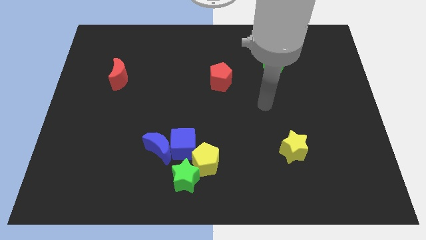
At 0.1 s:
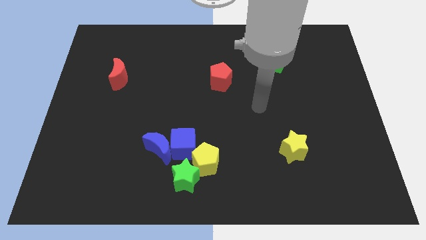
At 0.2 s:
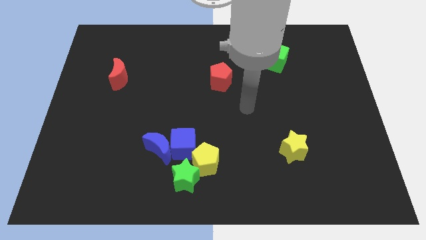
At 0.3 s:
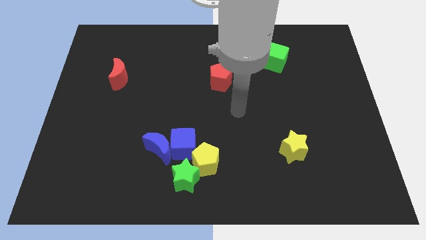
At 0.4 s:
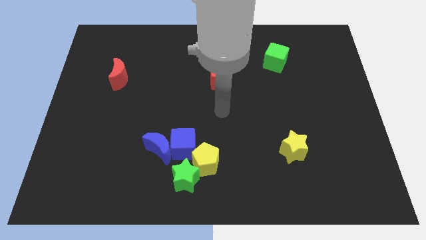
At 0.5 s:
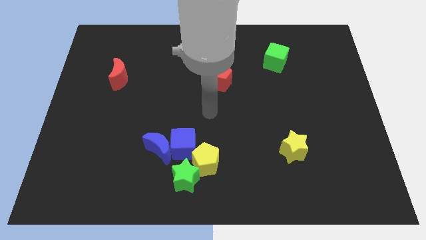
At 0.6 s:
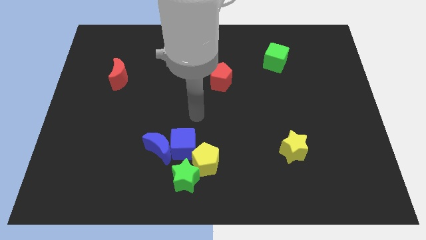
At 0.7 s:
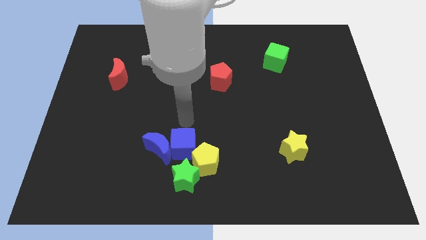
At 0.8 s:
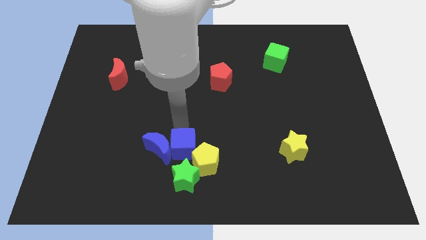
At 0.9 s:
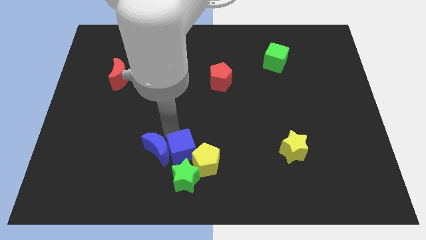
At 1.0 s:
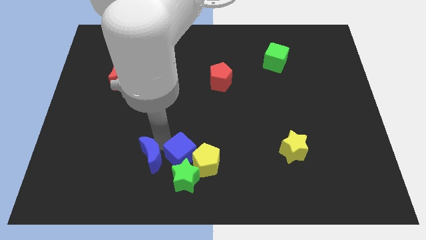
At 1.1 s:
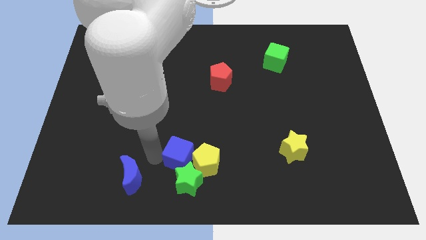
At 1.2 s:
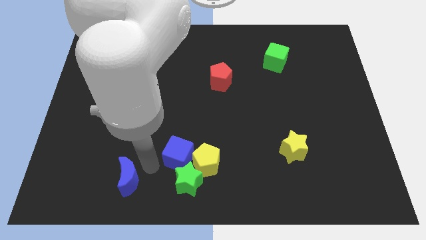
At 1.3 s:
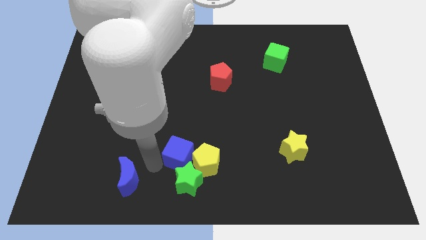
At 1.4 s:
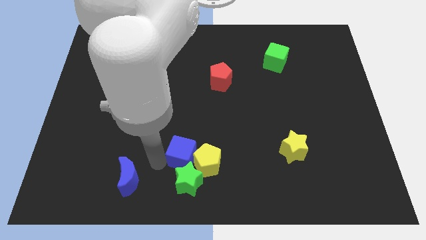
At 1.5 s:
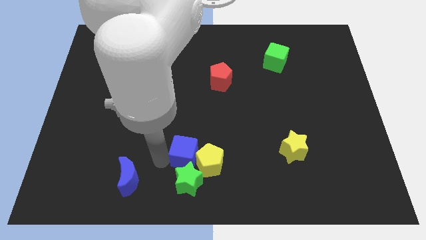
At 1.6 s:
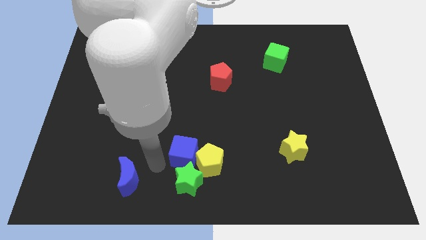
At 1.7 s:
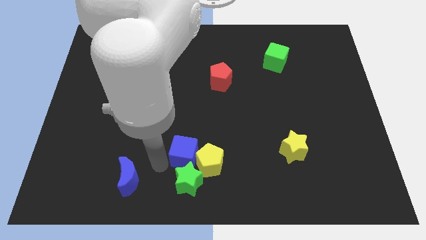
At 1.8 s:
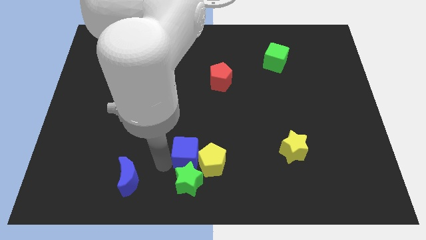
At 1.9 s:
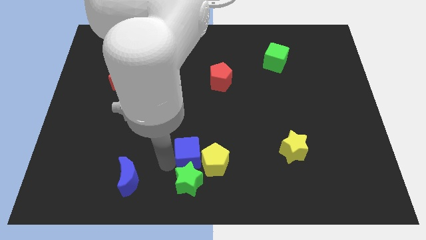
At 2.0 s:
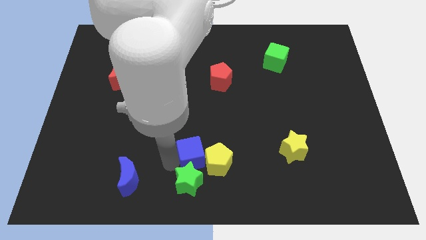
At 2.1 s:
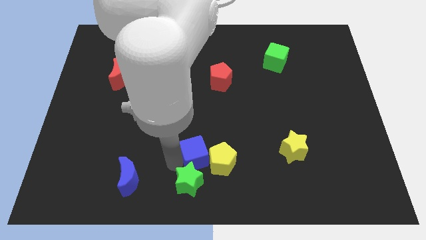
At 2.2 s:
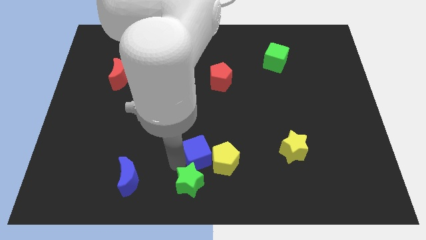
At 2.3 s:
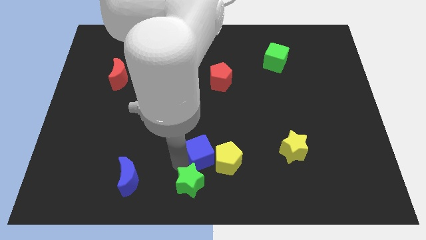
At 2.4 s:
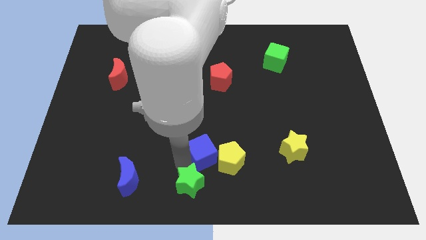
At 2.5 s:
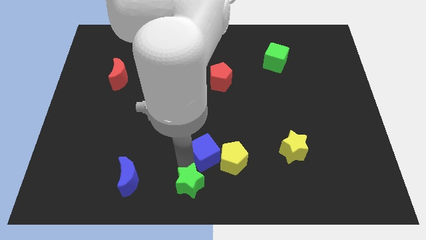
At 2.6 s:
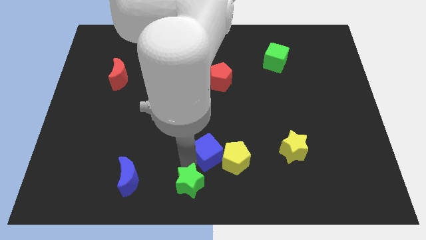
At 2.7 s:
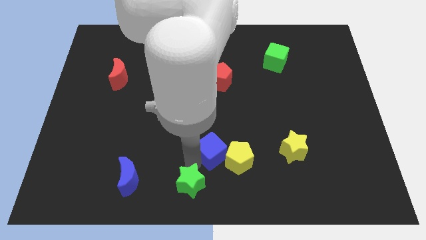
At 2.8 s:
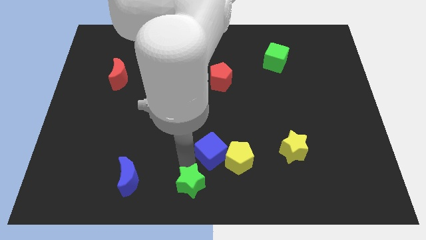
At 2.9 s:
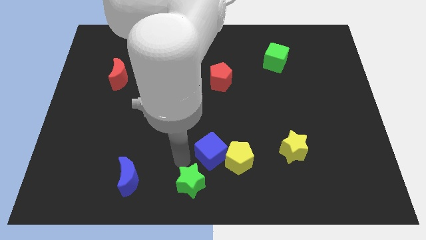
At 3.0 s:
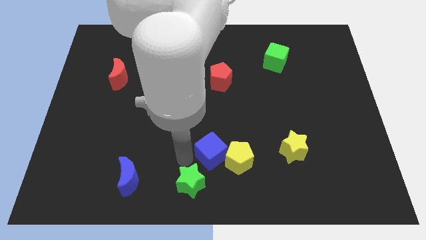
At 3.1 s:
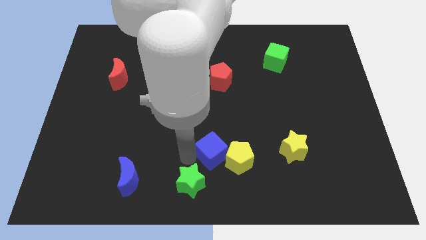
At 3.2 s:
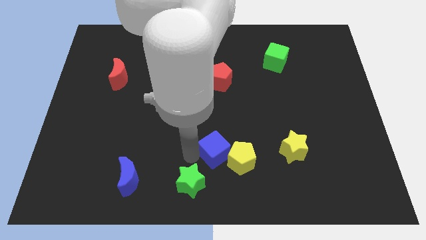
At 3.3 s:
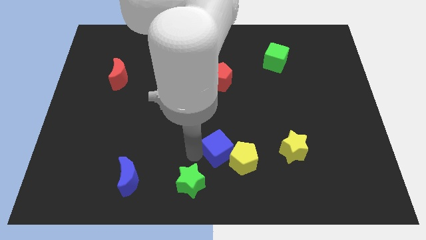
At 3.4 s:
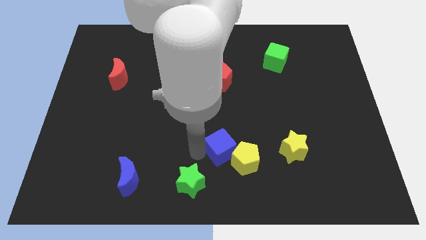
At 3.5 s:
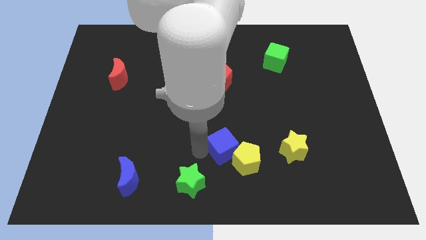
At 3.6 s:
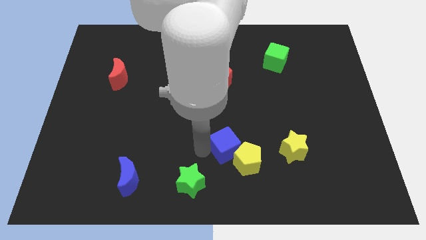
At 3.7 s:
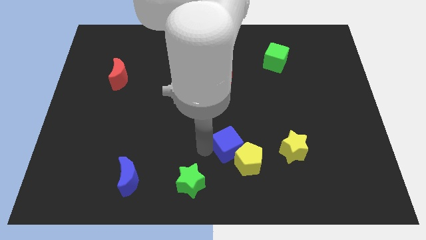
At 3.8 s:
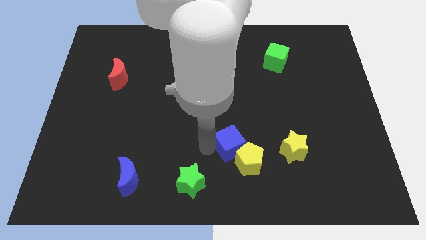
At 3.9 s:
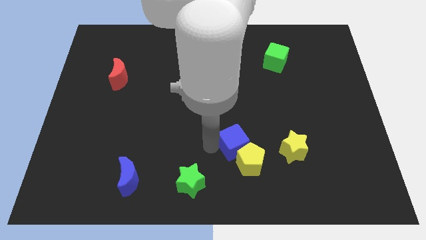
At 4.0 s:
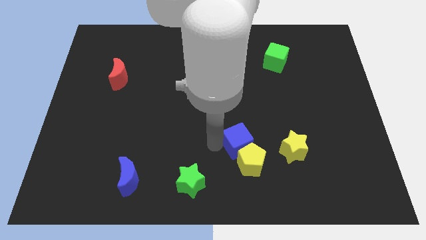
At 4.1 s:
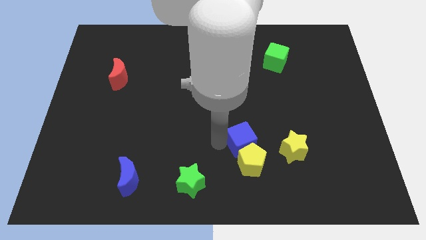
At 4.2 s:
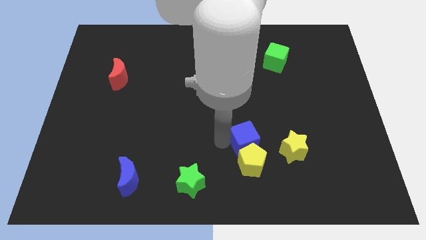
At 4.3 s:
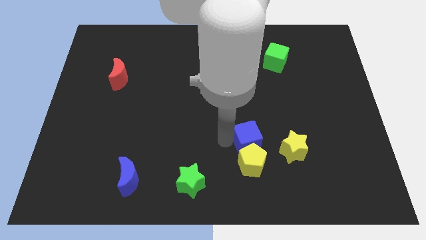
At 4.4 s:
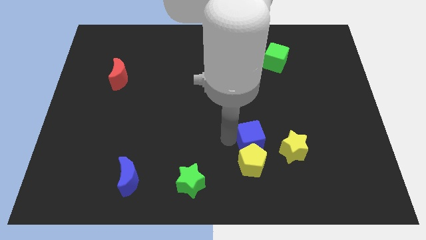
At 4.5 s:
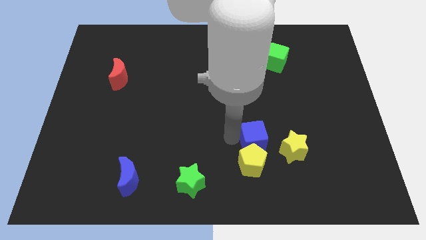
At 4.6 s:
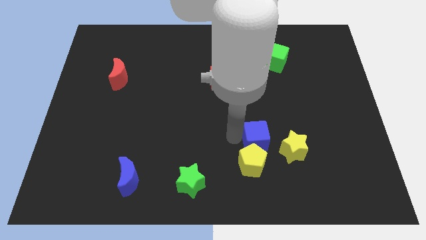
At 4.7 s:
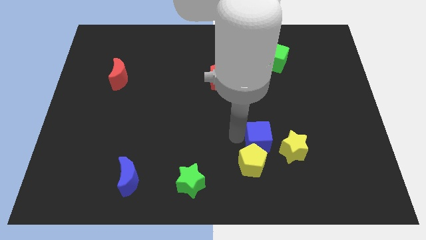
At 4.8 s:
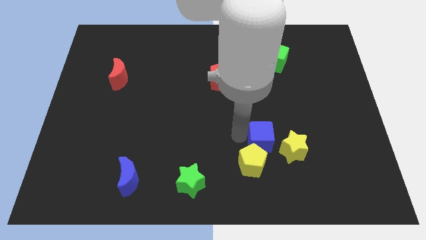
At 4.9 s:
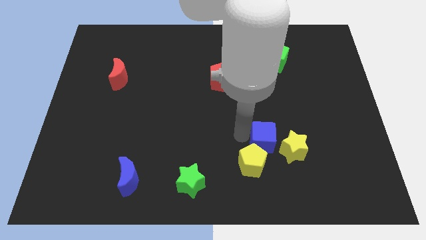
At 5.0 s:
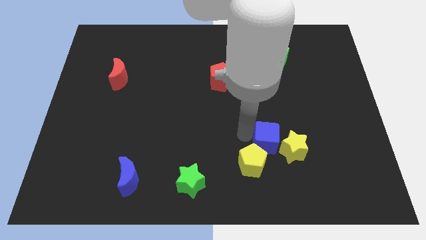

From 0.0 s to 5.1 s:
push the blue cube to the yellow star

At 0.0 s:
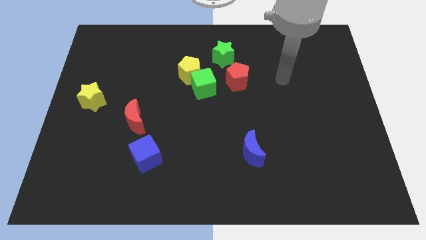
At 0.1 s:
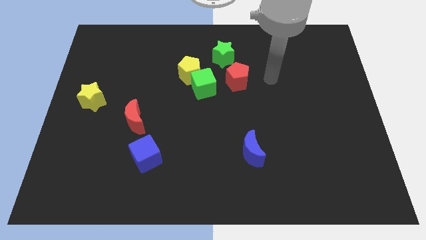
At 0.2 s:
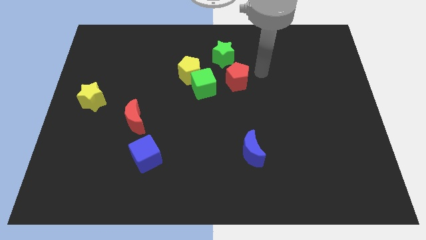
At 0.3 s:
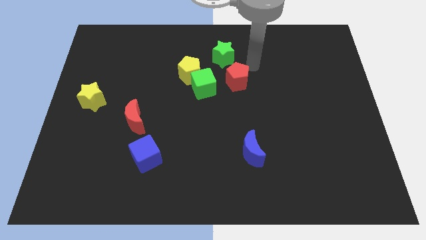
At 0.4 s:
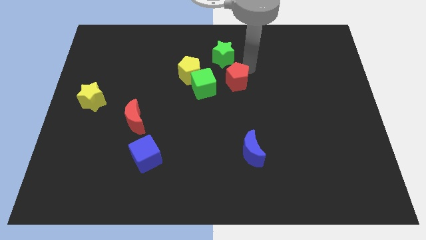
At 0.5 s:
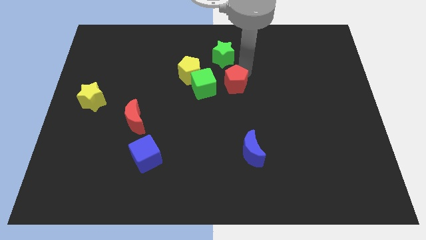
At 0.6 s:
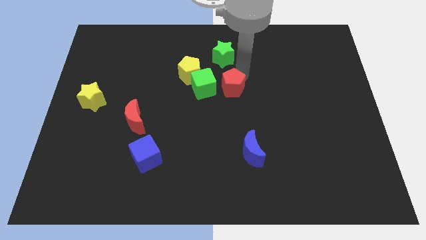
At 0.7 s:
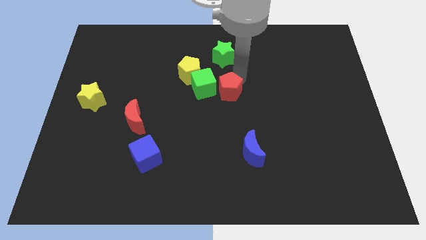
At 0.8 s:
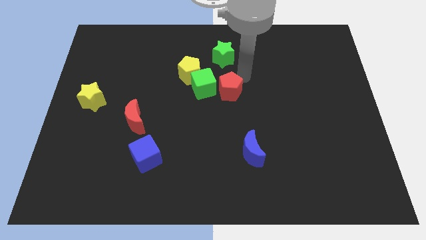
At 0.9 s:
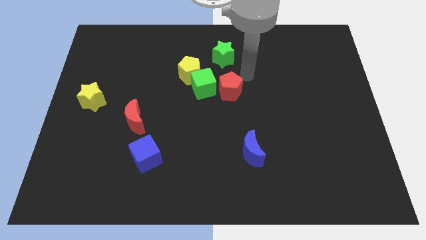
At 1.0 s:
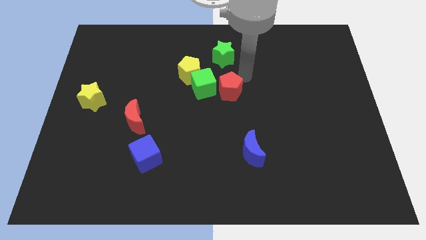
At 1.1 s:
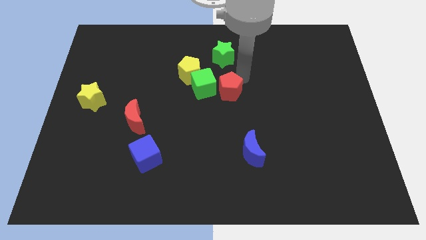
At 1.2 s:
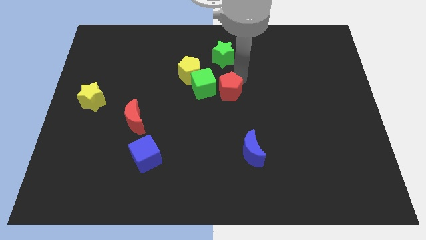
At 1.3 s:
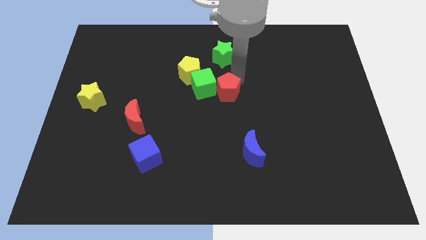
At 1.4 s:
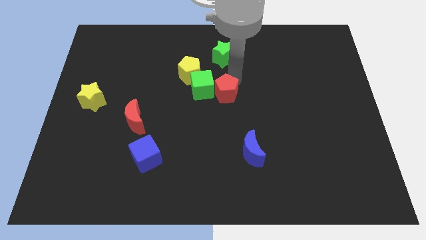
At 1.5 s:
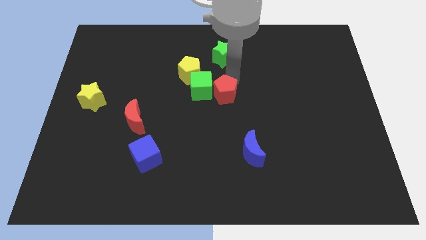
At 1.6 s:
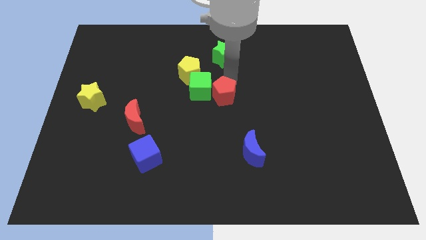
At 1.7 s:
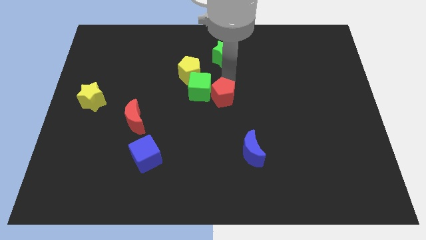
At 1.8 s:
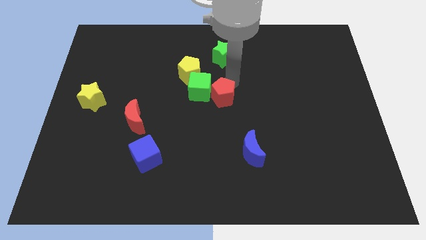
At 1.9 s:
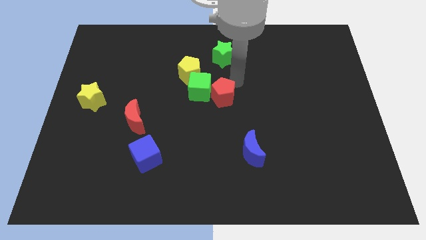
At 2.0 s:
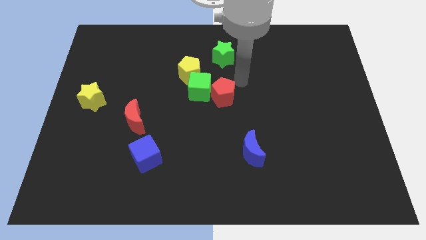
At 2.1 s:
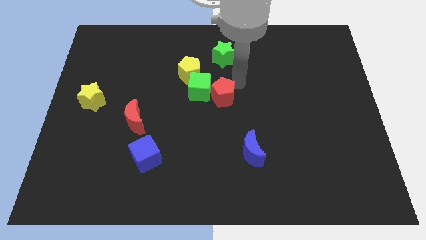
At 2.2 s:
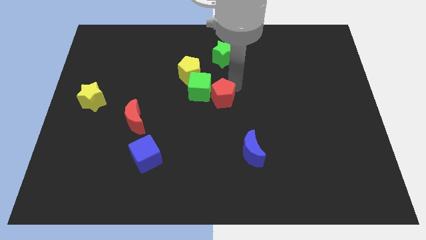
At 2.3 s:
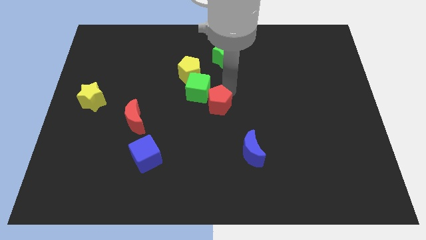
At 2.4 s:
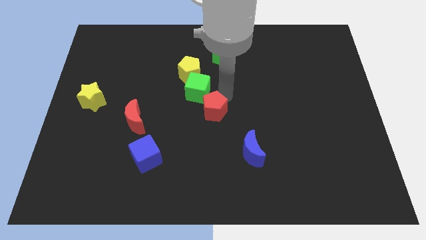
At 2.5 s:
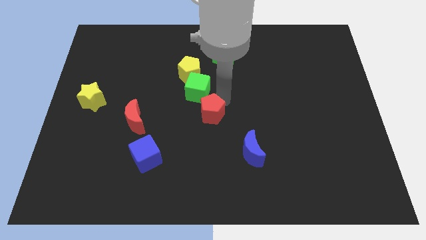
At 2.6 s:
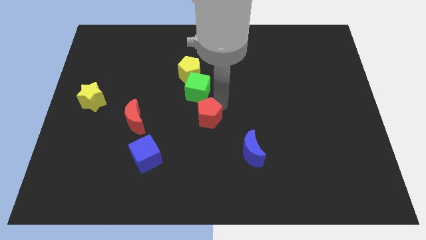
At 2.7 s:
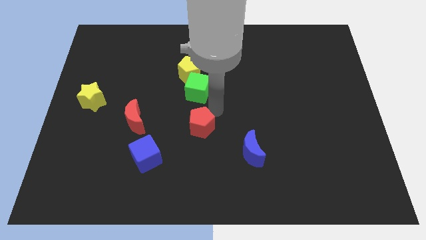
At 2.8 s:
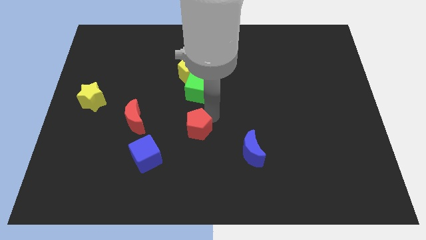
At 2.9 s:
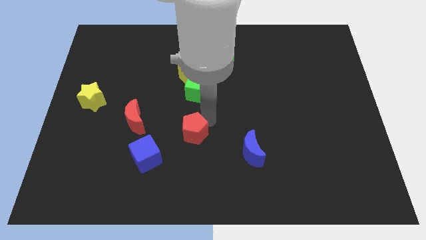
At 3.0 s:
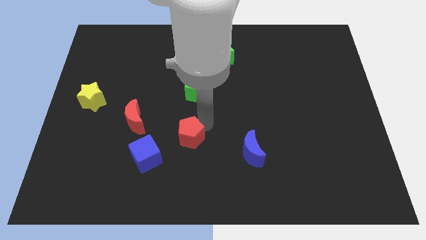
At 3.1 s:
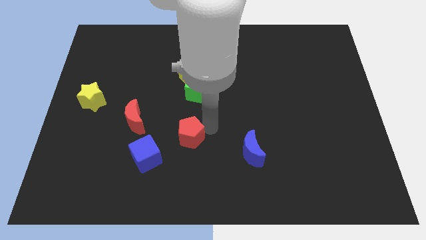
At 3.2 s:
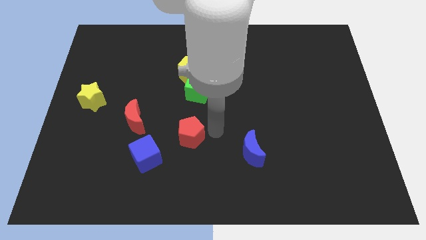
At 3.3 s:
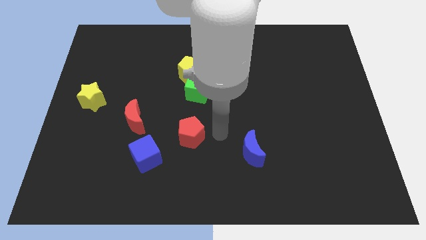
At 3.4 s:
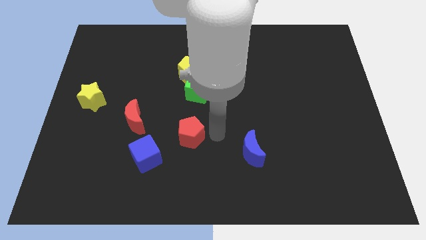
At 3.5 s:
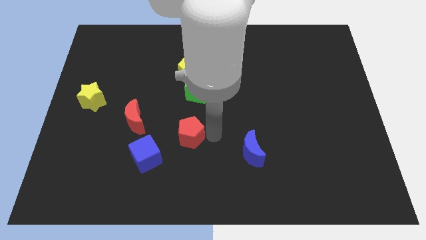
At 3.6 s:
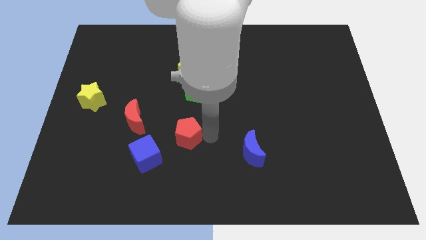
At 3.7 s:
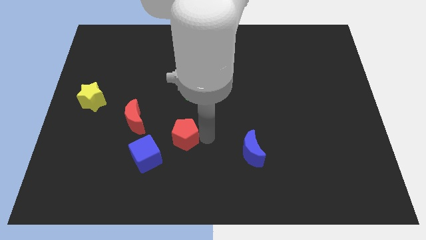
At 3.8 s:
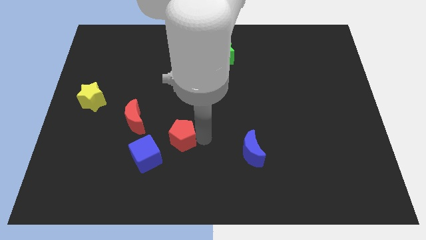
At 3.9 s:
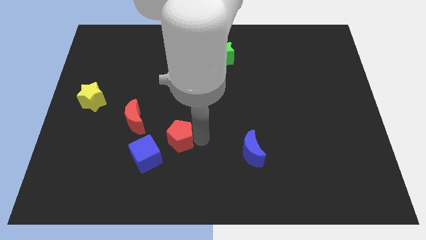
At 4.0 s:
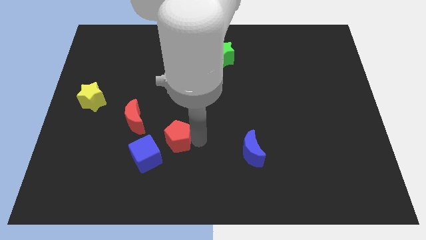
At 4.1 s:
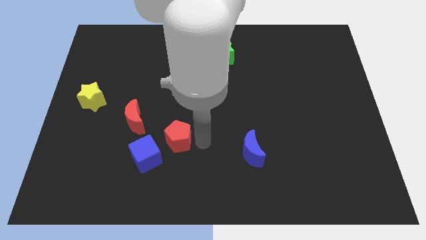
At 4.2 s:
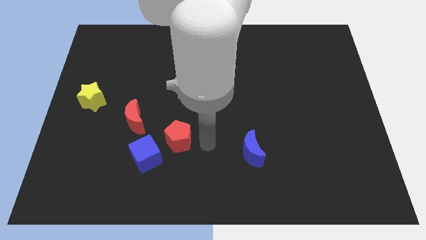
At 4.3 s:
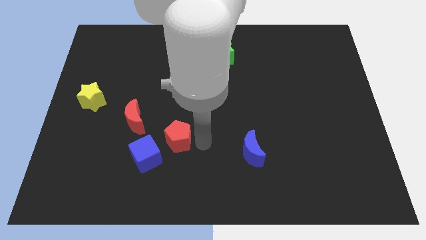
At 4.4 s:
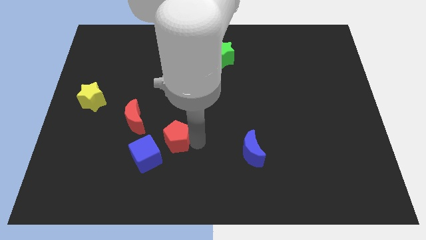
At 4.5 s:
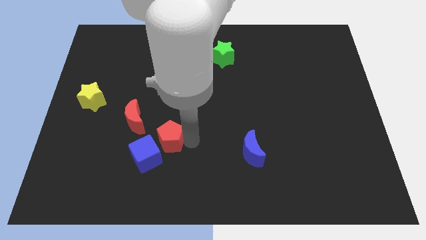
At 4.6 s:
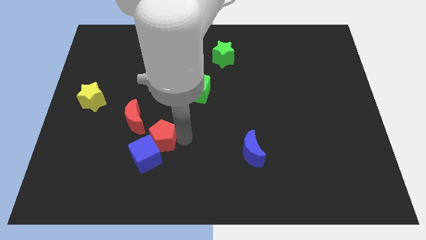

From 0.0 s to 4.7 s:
move the red pentagon to the blue cube
